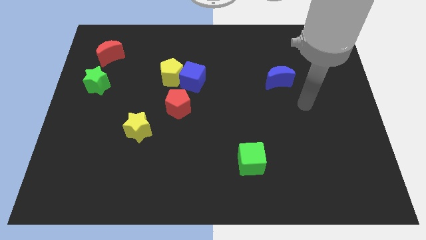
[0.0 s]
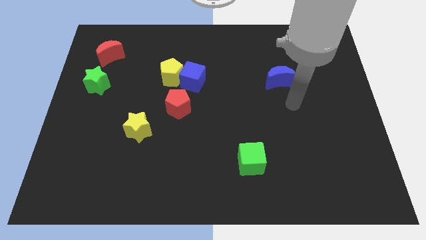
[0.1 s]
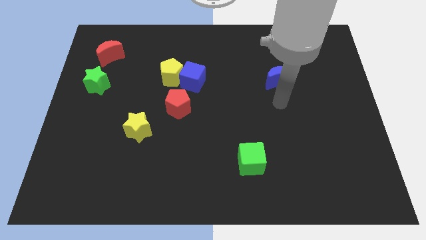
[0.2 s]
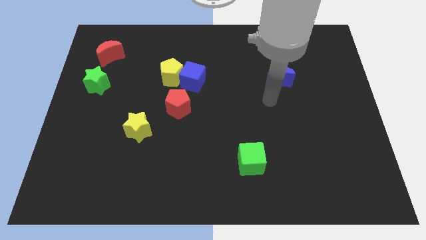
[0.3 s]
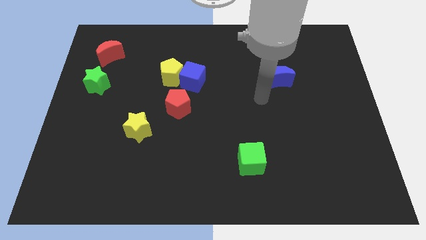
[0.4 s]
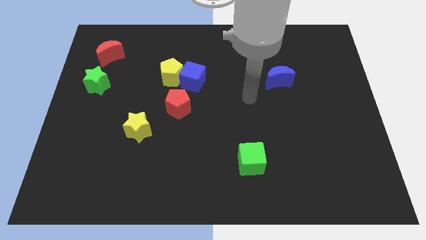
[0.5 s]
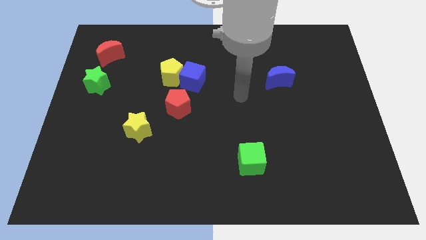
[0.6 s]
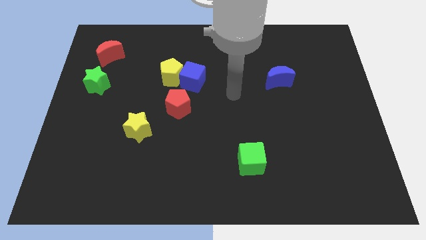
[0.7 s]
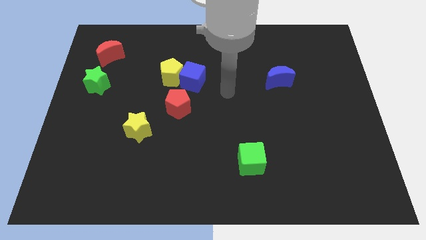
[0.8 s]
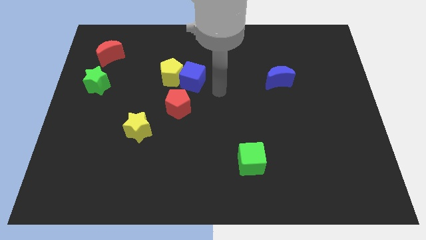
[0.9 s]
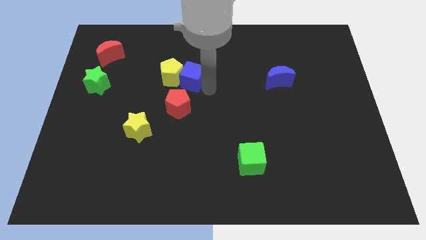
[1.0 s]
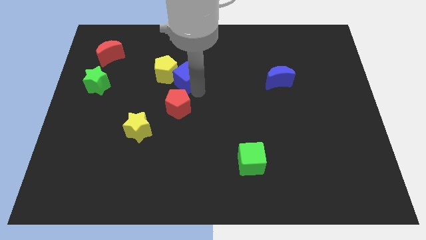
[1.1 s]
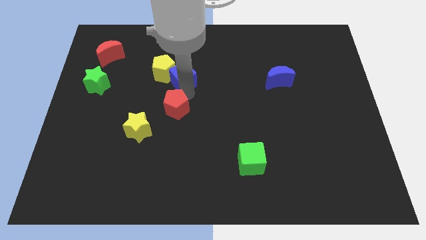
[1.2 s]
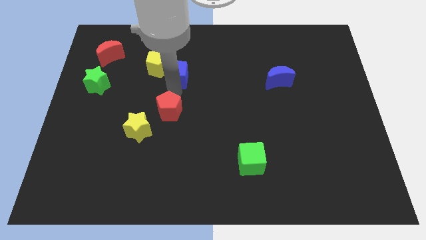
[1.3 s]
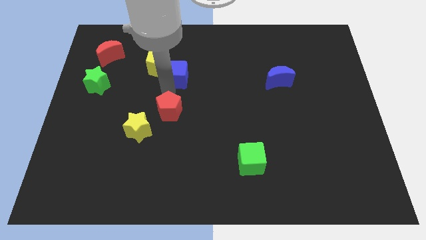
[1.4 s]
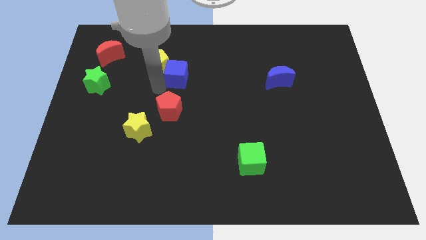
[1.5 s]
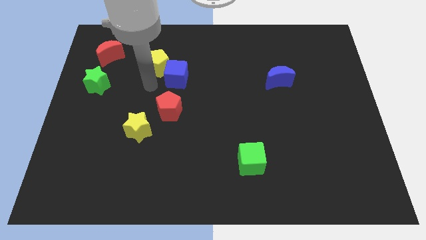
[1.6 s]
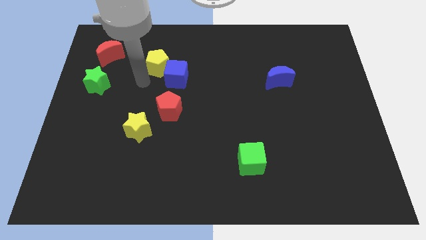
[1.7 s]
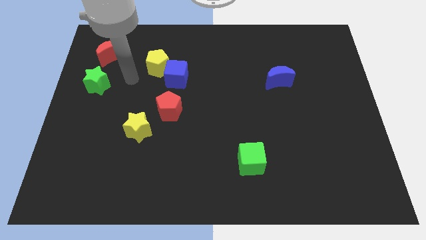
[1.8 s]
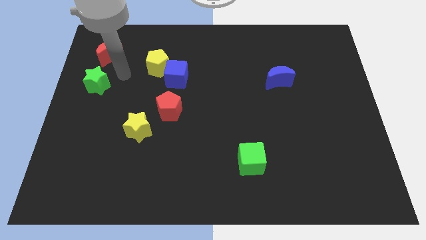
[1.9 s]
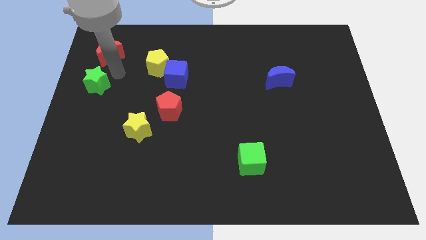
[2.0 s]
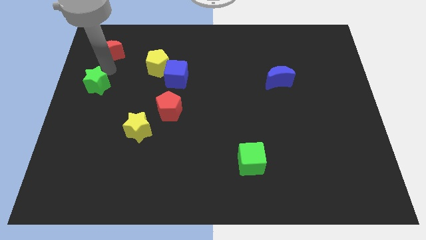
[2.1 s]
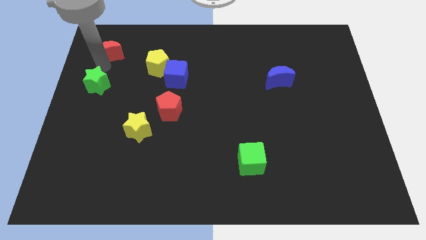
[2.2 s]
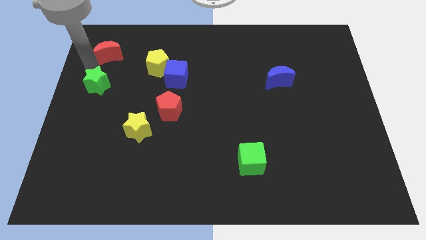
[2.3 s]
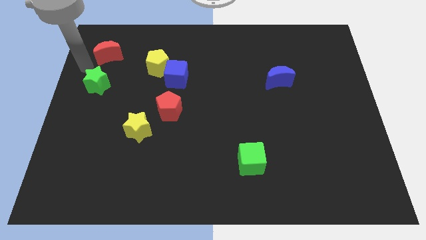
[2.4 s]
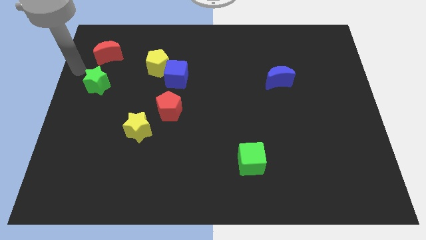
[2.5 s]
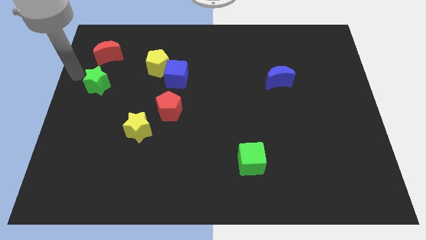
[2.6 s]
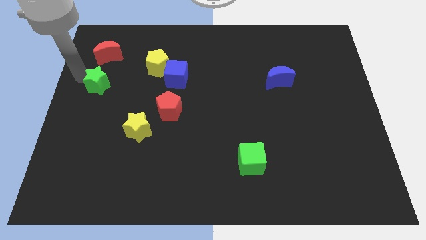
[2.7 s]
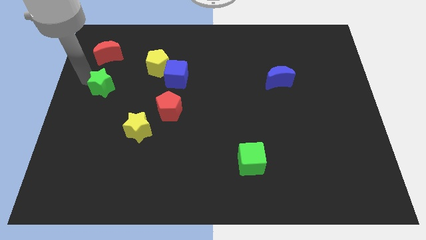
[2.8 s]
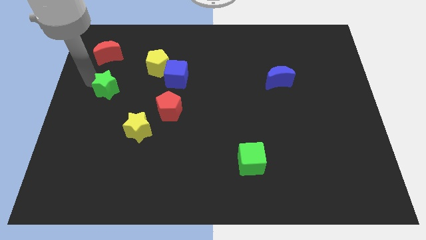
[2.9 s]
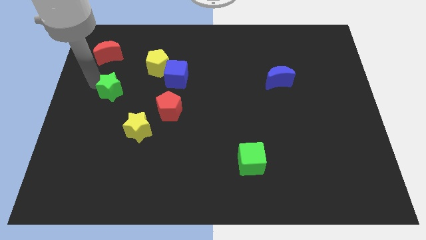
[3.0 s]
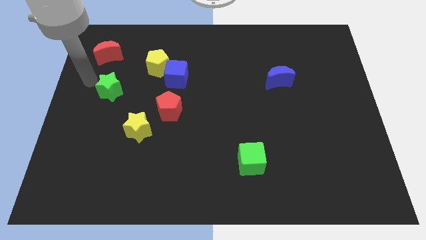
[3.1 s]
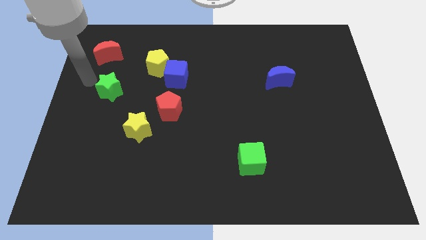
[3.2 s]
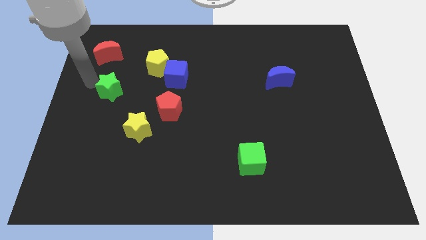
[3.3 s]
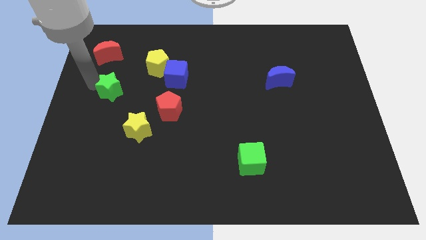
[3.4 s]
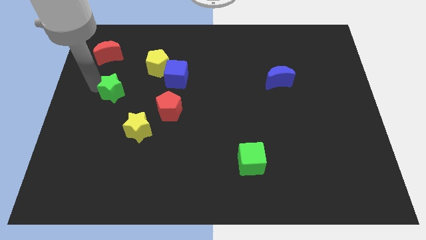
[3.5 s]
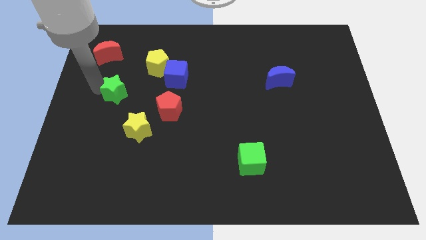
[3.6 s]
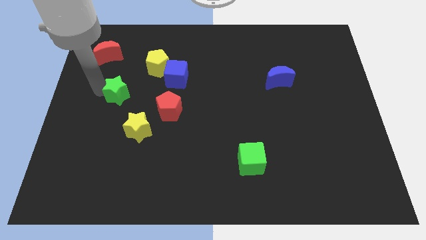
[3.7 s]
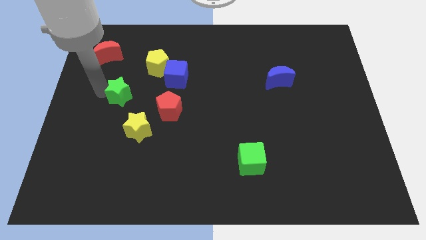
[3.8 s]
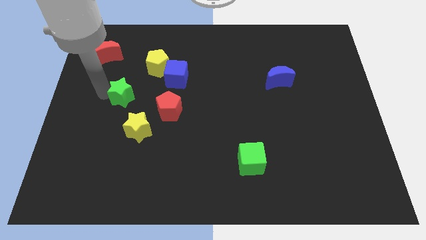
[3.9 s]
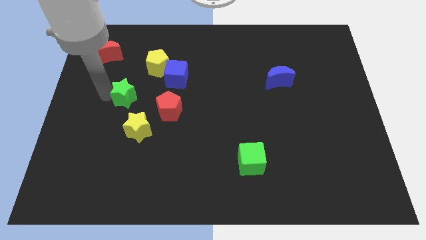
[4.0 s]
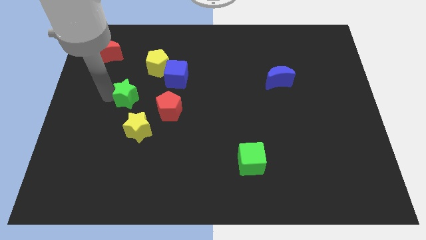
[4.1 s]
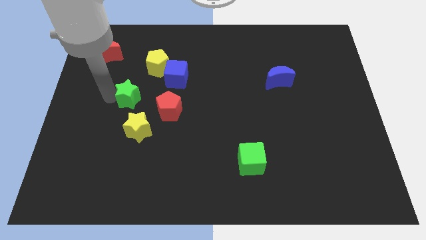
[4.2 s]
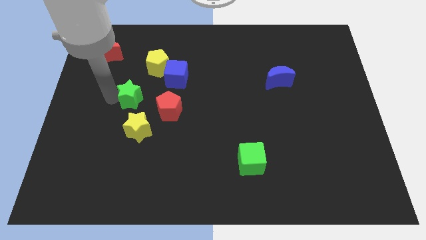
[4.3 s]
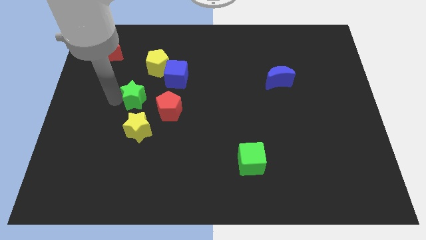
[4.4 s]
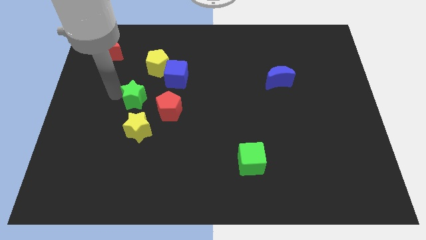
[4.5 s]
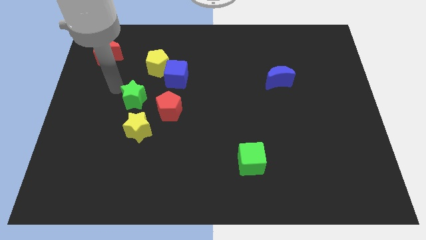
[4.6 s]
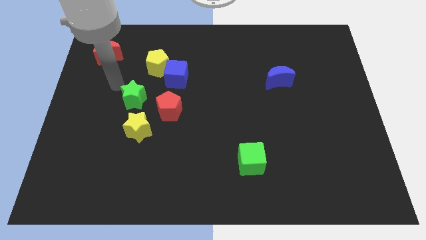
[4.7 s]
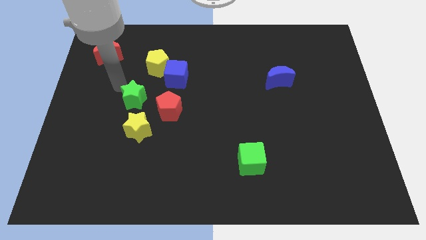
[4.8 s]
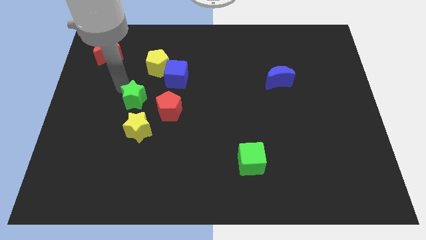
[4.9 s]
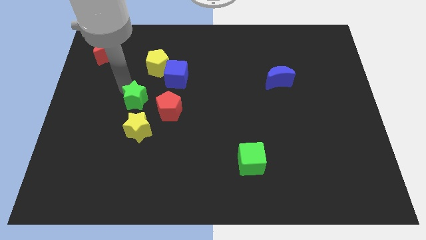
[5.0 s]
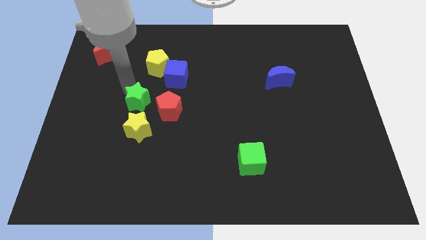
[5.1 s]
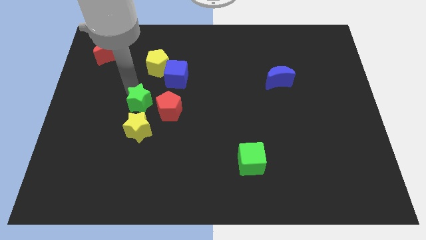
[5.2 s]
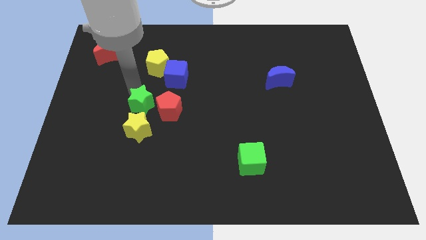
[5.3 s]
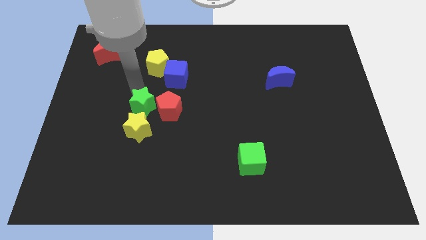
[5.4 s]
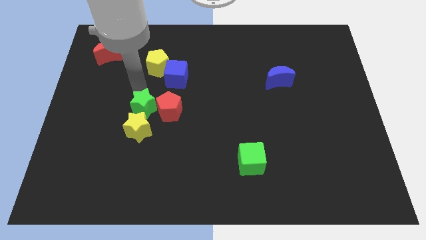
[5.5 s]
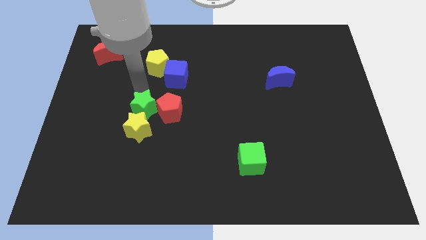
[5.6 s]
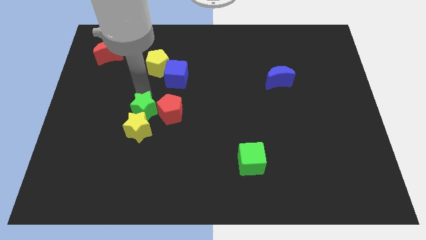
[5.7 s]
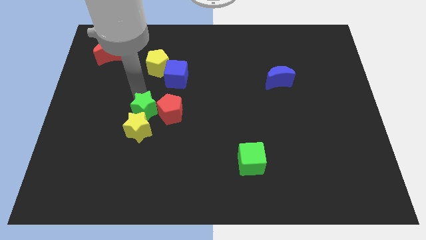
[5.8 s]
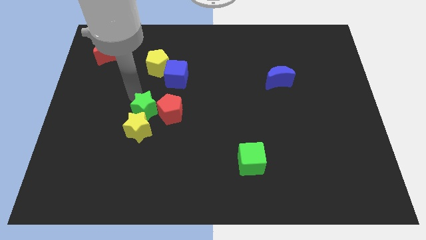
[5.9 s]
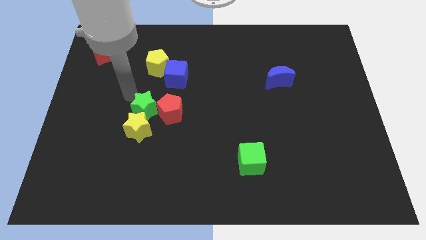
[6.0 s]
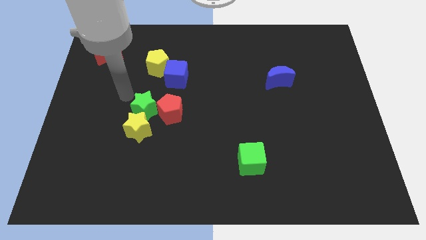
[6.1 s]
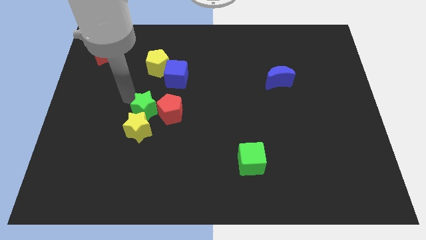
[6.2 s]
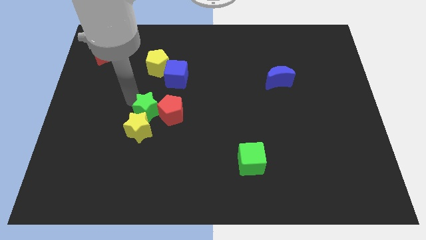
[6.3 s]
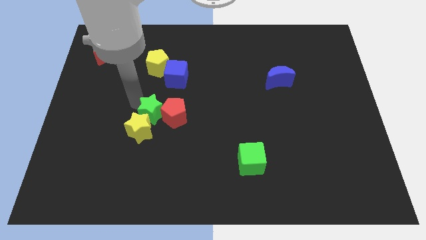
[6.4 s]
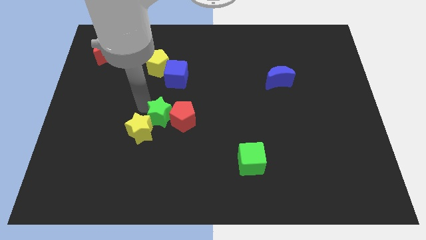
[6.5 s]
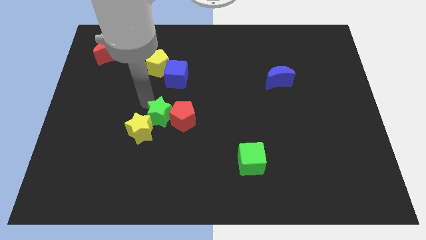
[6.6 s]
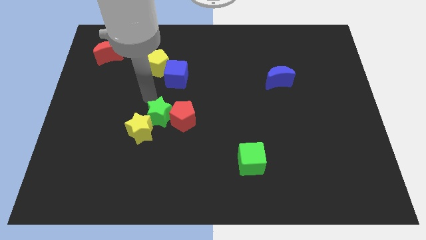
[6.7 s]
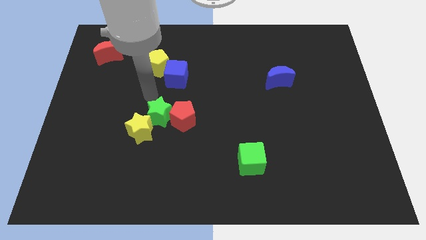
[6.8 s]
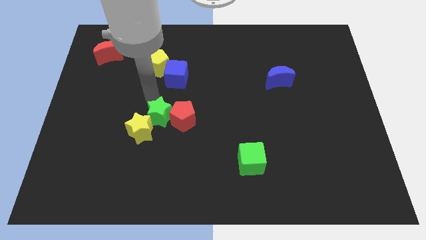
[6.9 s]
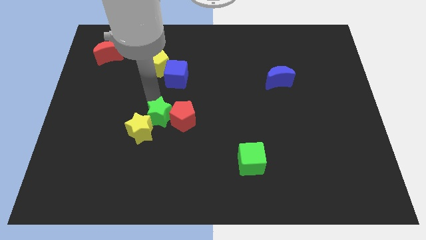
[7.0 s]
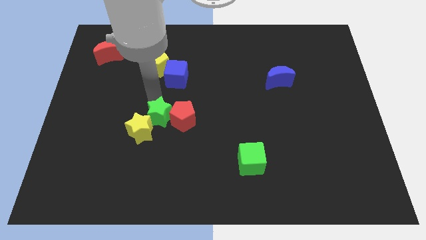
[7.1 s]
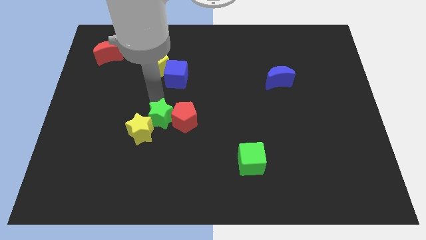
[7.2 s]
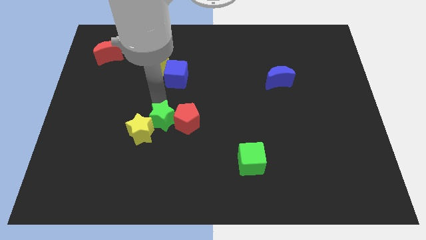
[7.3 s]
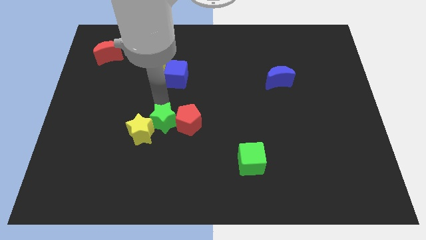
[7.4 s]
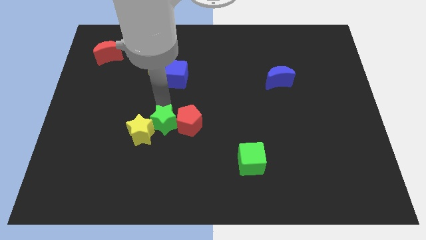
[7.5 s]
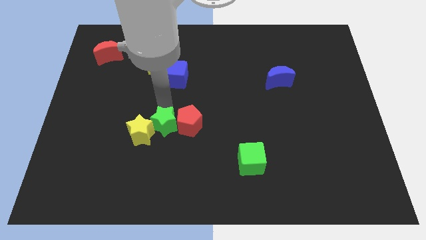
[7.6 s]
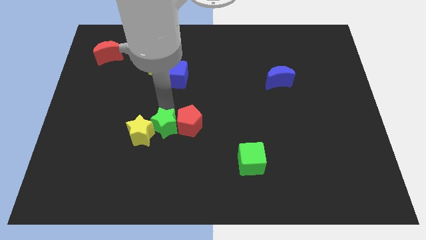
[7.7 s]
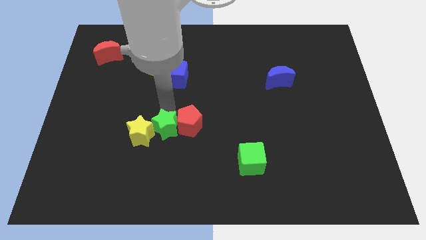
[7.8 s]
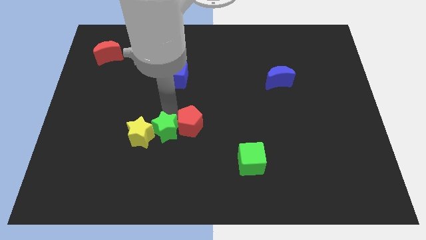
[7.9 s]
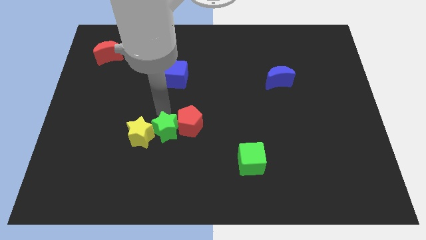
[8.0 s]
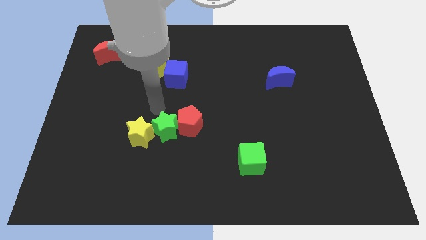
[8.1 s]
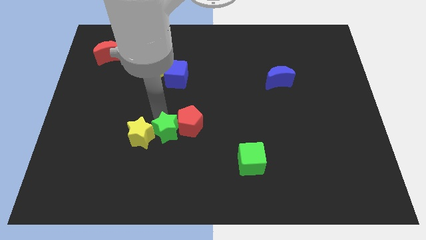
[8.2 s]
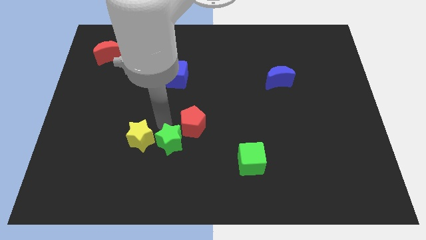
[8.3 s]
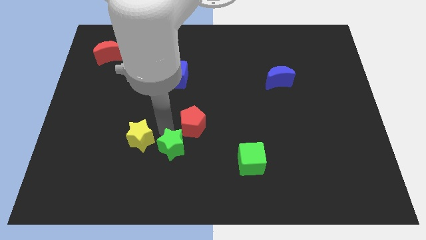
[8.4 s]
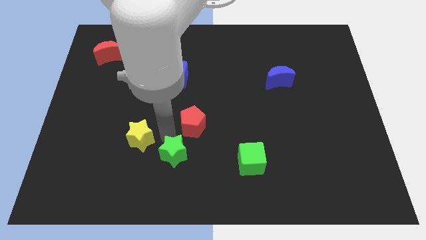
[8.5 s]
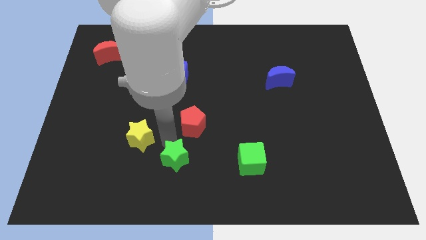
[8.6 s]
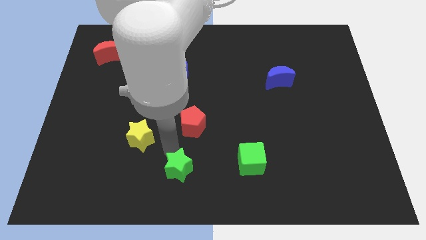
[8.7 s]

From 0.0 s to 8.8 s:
put the green star to the bottom
